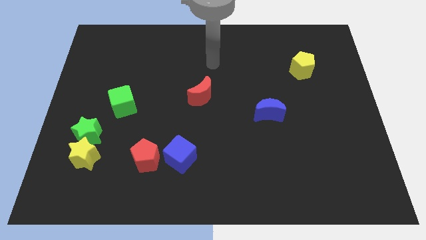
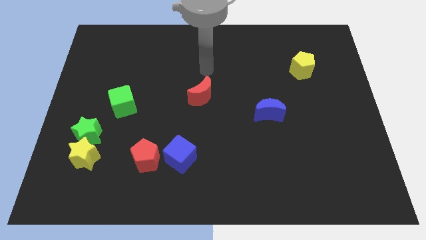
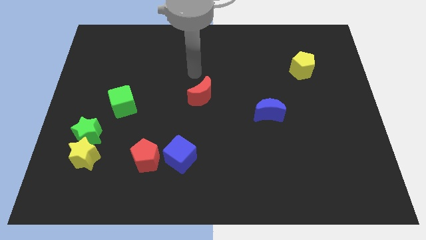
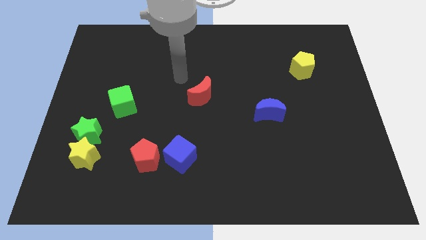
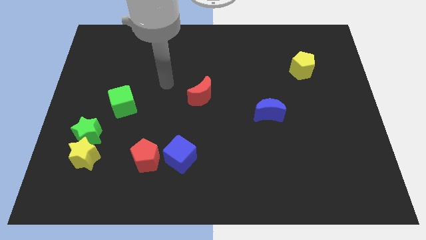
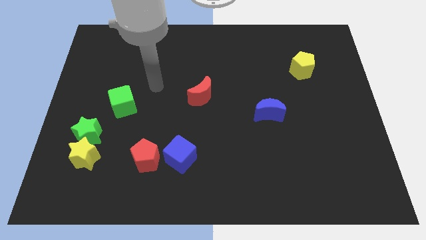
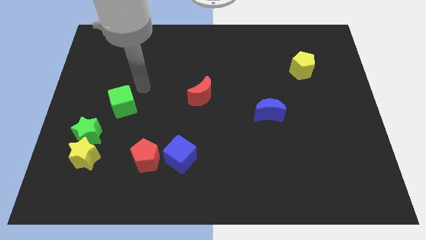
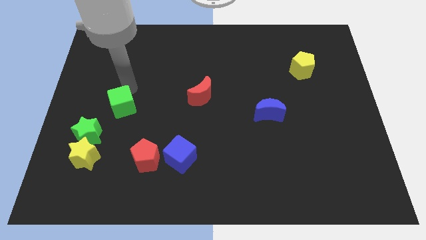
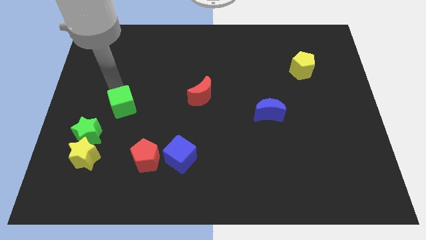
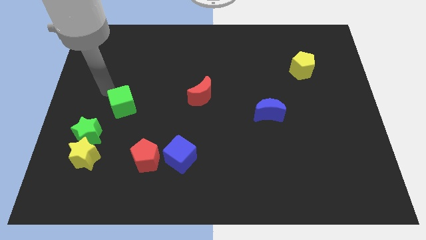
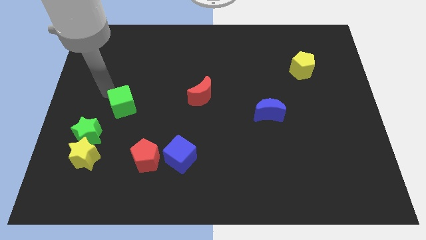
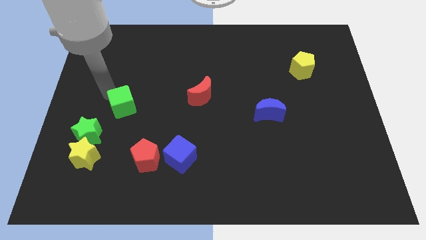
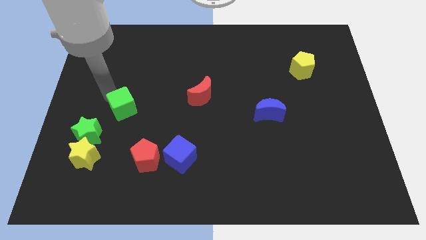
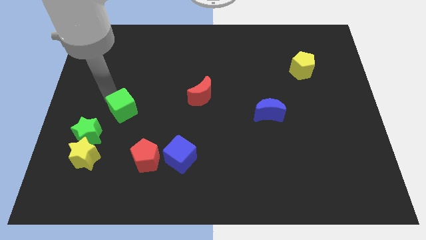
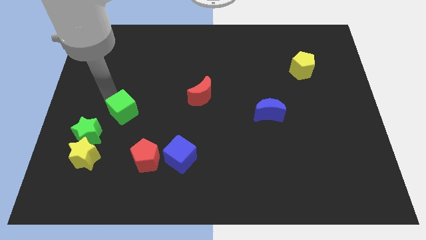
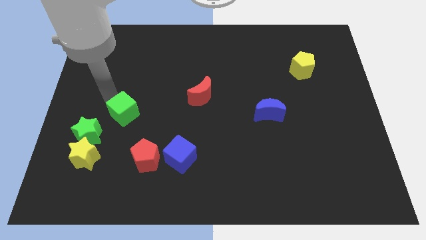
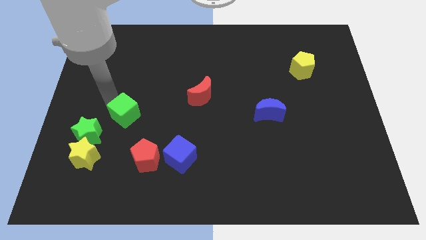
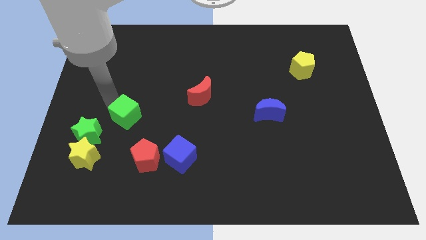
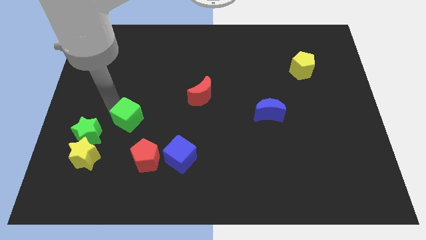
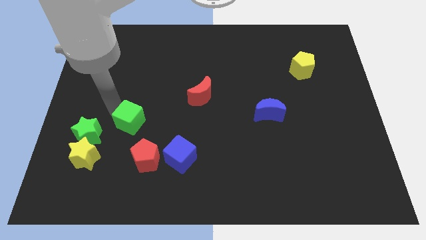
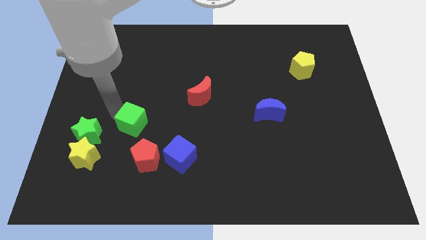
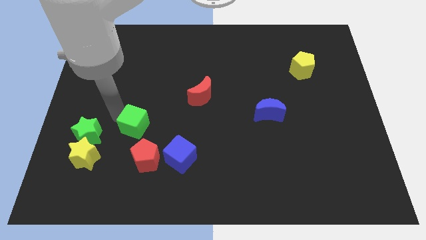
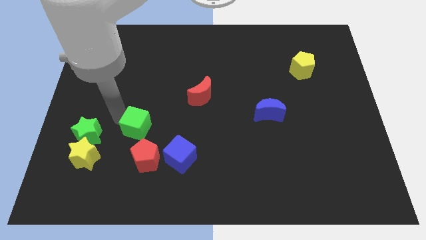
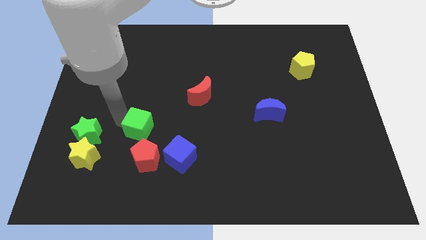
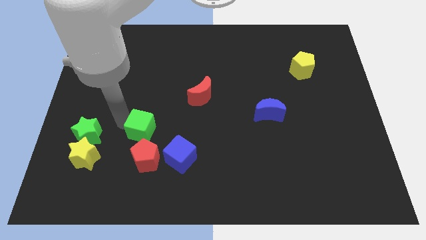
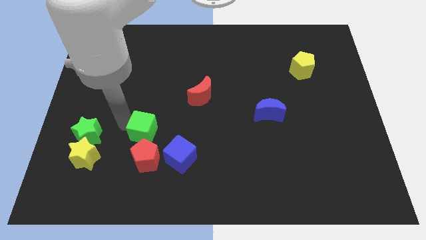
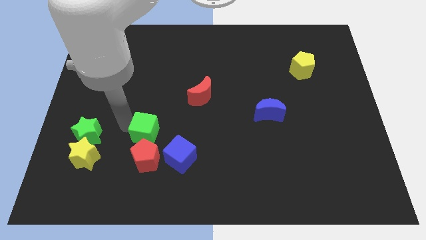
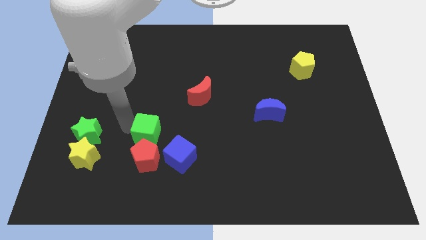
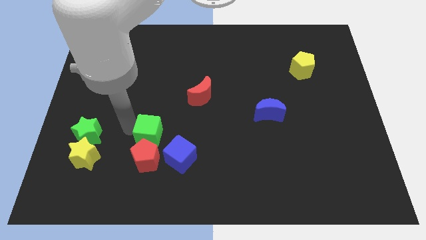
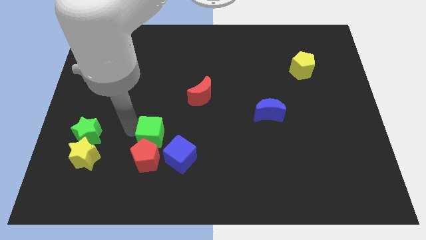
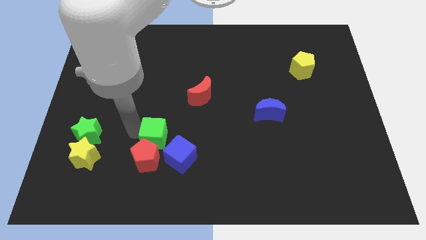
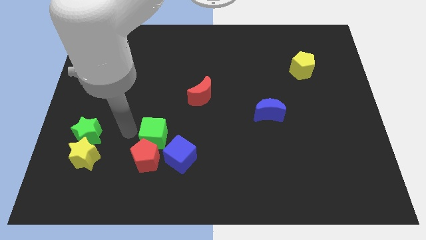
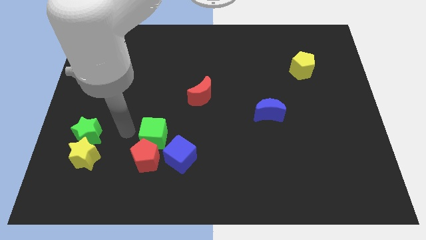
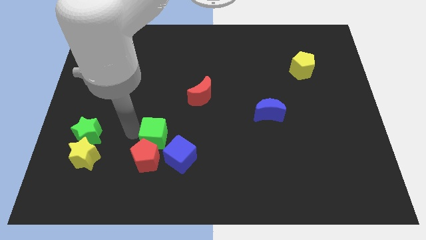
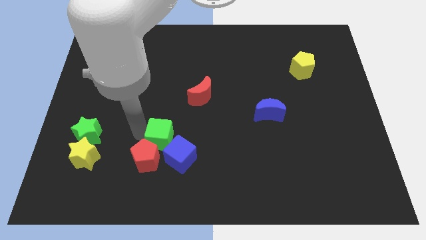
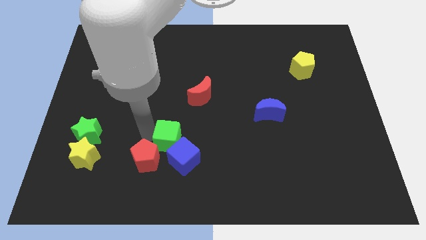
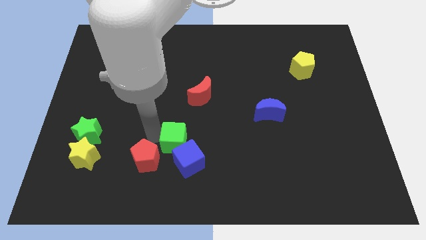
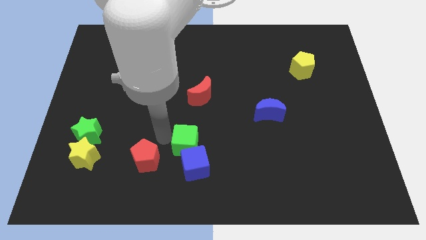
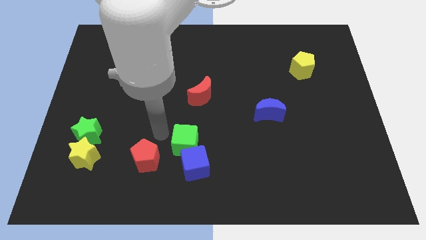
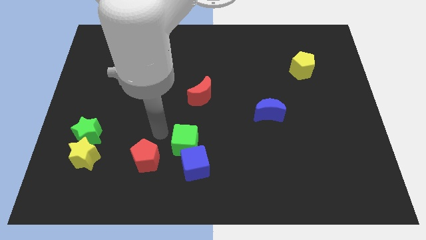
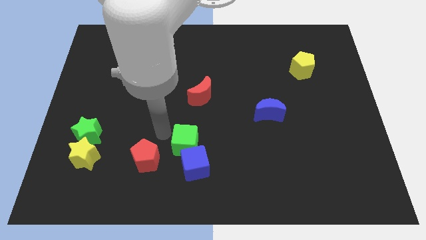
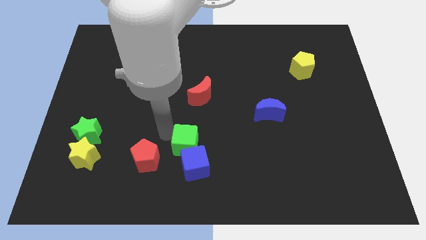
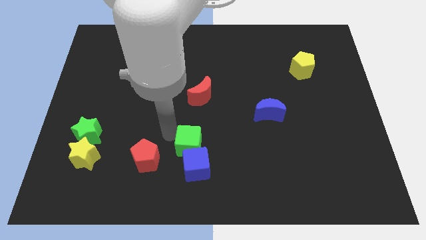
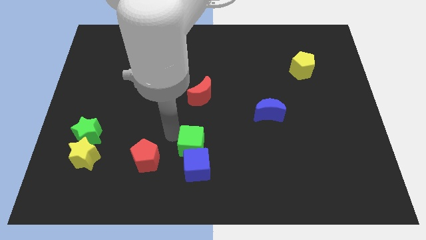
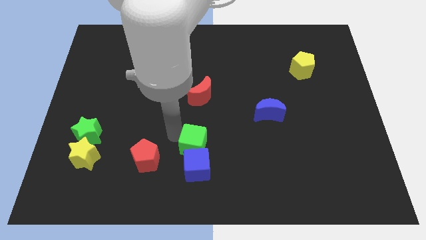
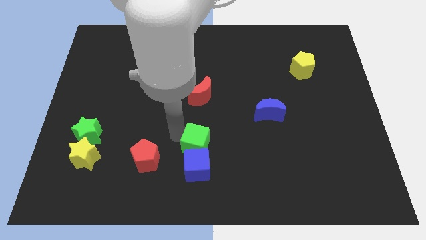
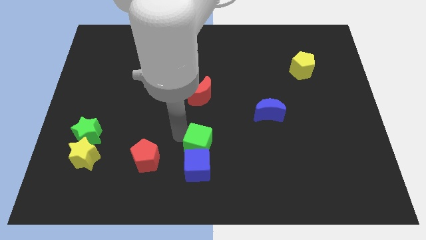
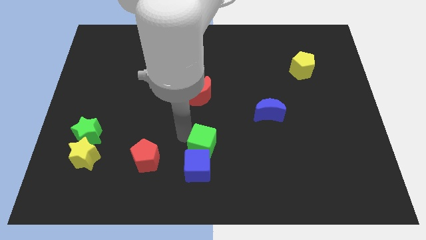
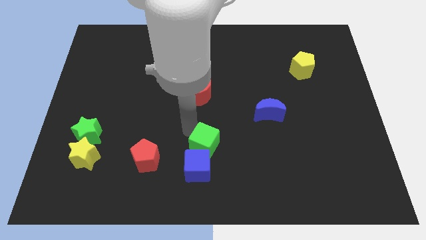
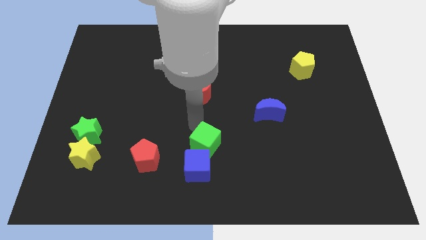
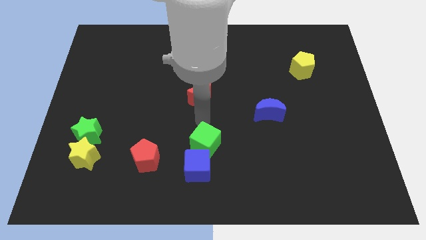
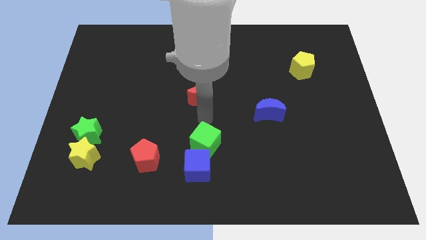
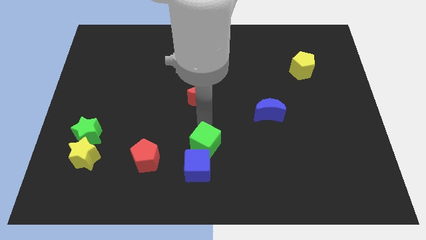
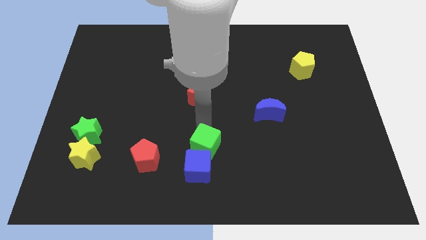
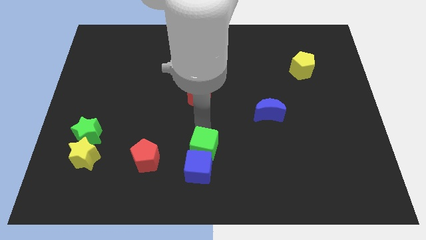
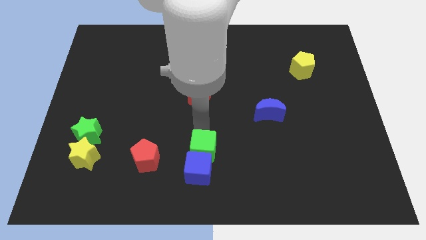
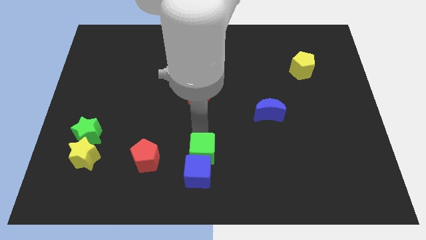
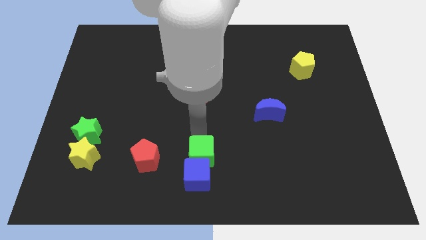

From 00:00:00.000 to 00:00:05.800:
put the green cube to the bottom side

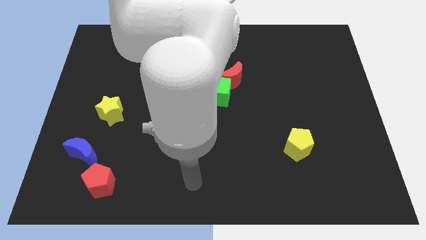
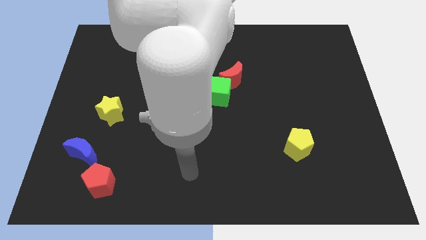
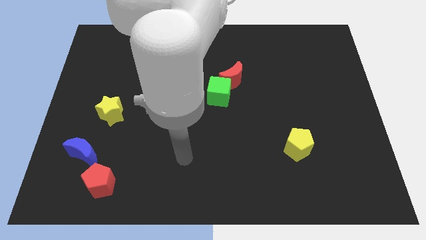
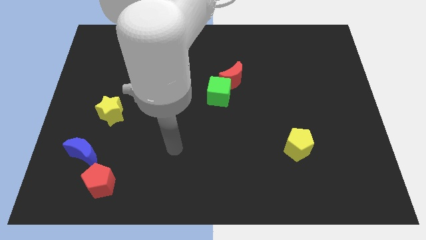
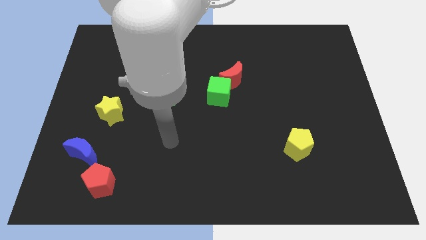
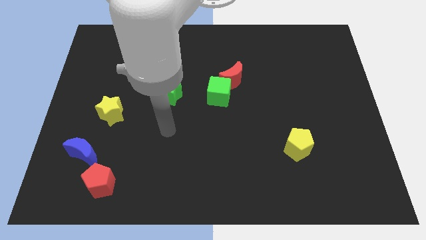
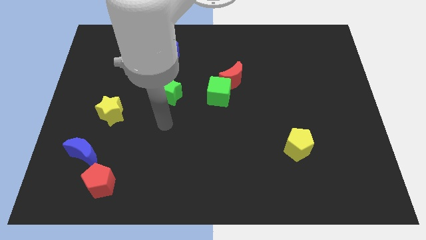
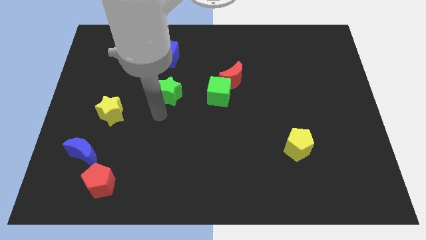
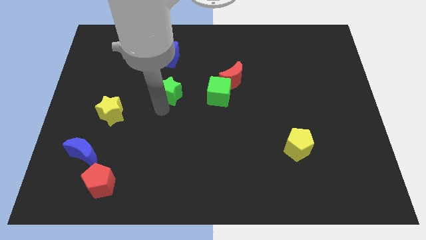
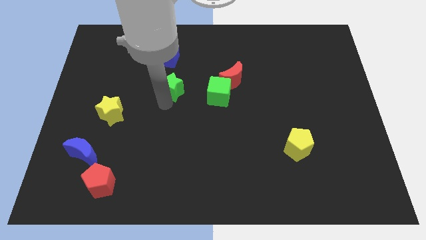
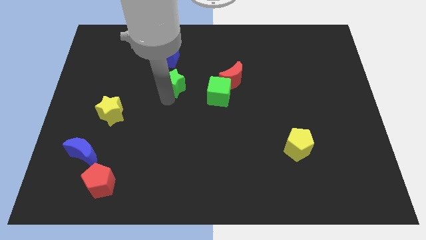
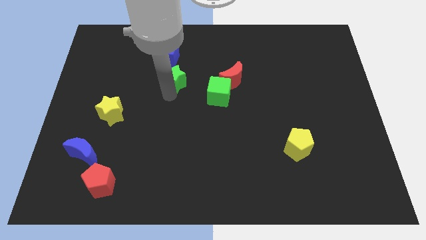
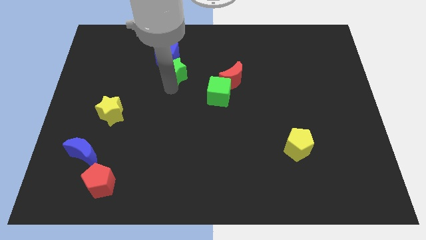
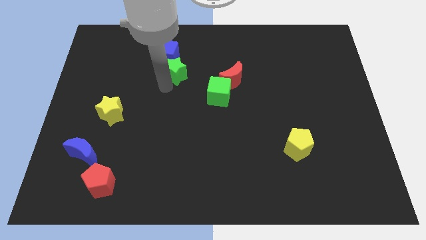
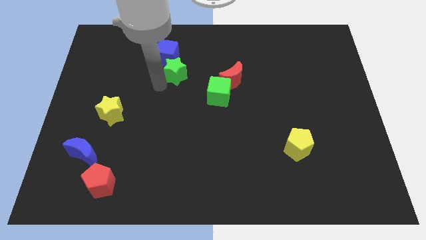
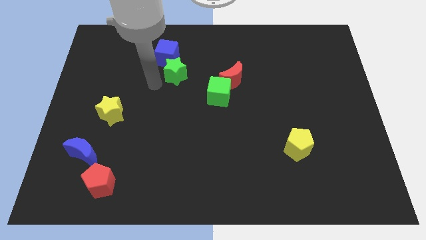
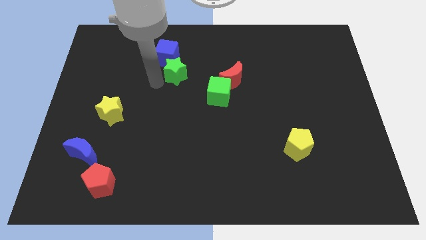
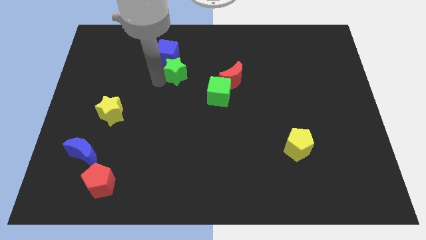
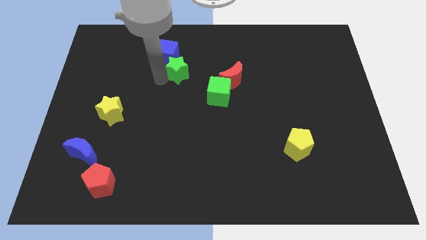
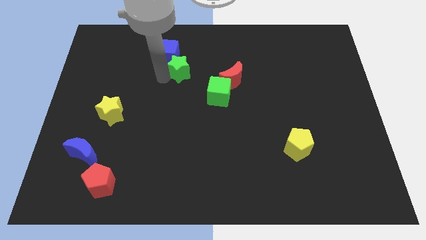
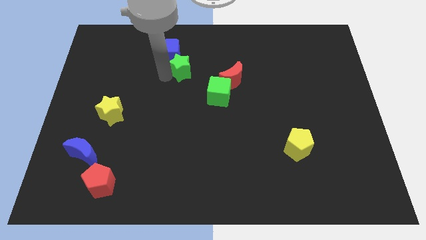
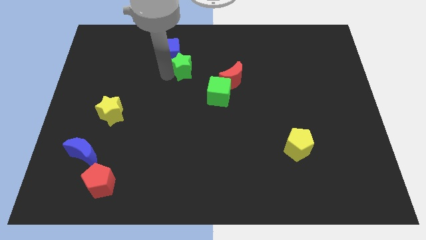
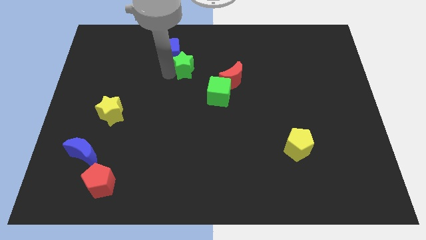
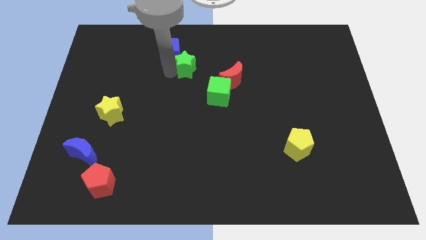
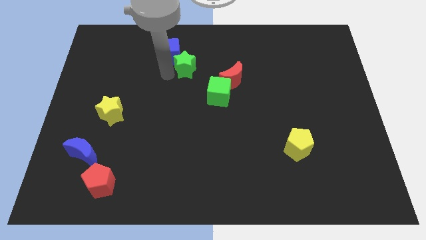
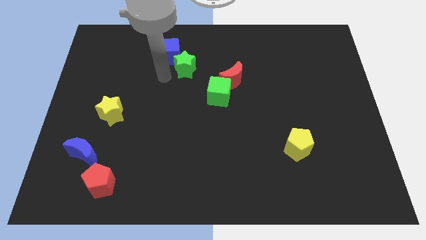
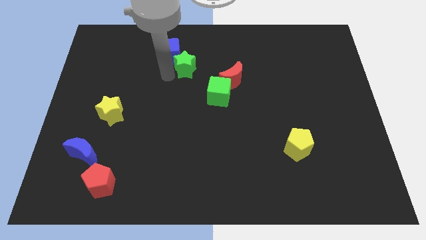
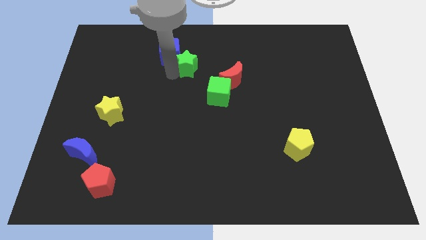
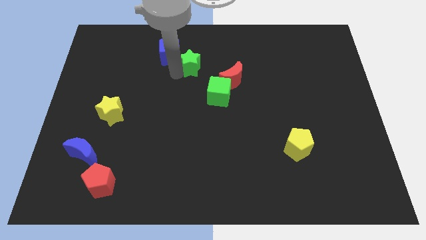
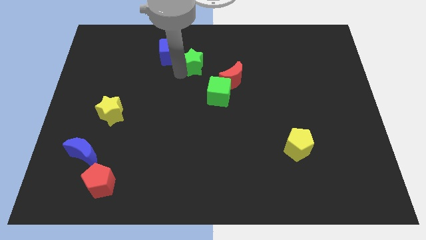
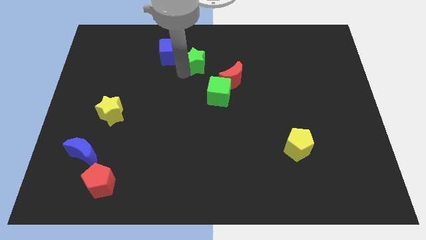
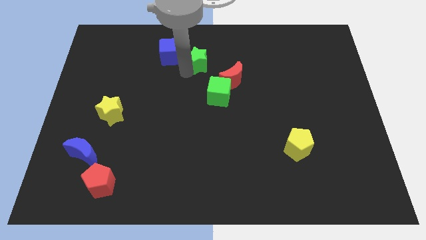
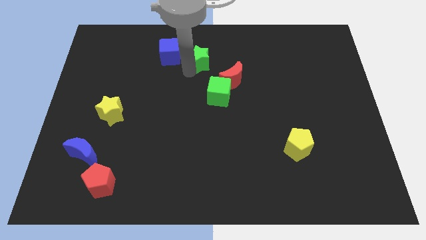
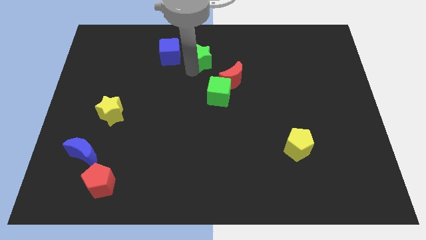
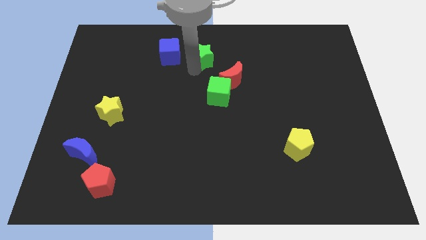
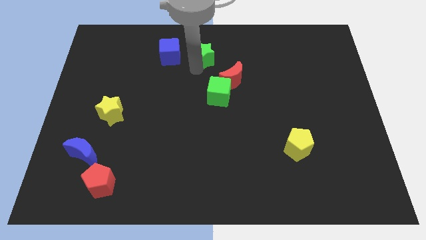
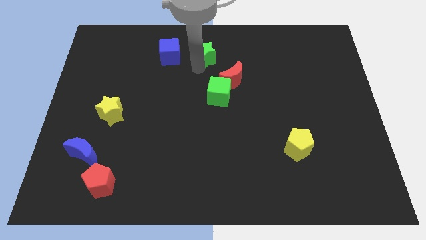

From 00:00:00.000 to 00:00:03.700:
push the green star to the towards your base
